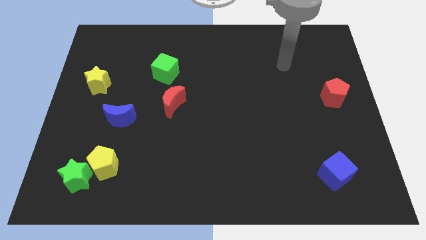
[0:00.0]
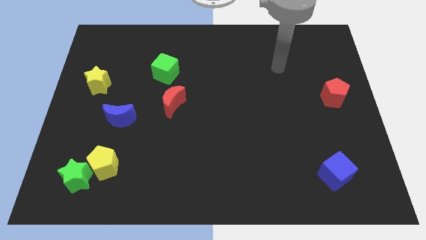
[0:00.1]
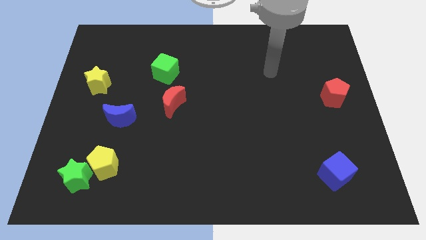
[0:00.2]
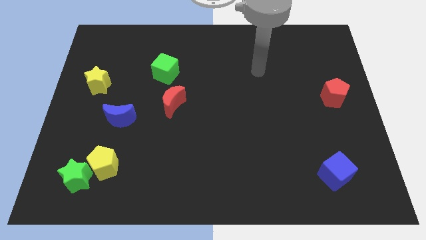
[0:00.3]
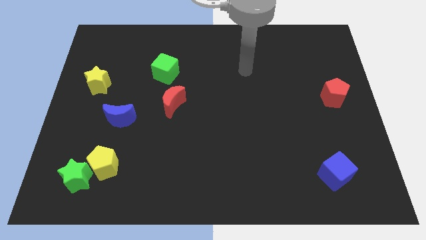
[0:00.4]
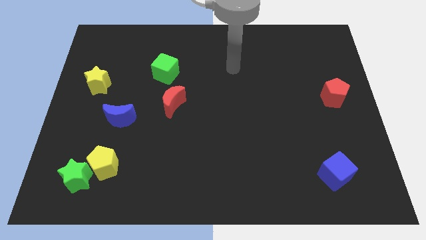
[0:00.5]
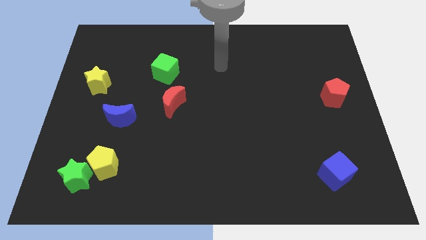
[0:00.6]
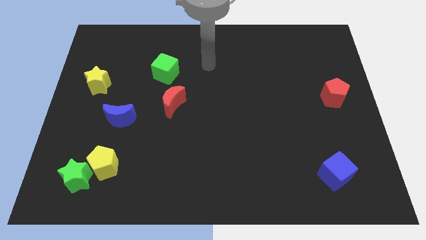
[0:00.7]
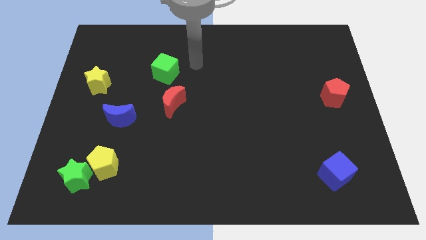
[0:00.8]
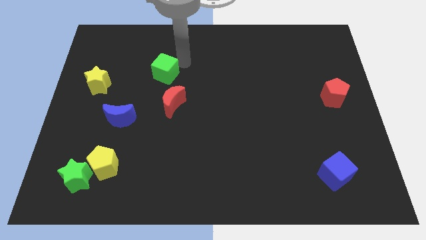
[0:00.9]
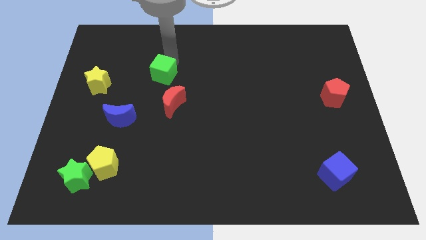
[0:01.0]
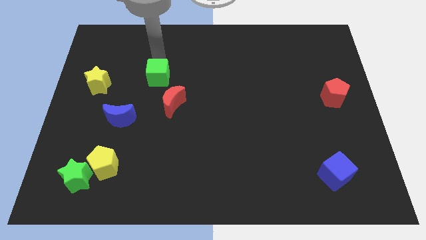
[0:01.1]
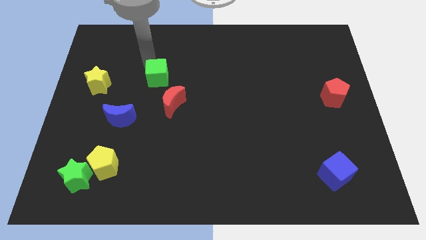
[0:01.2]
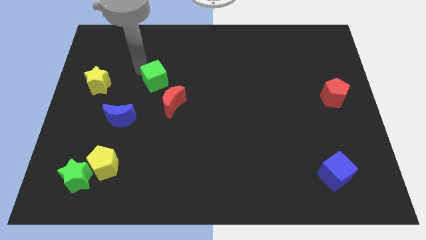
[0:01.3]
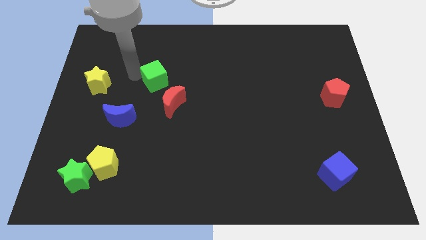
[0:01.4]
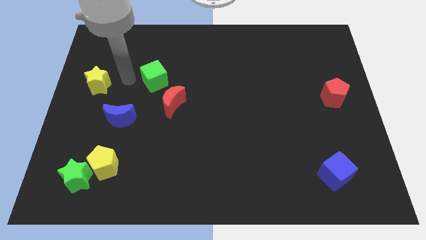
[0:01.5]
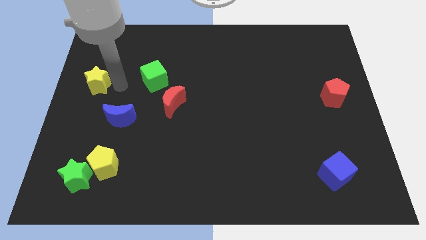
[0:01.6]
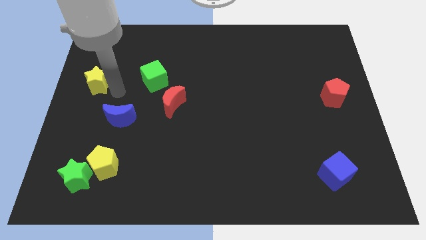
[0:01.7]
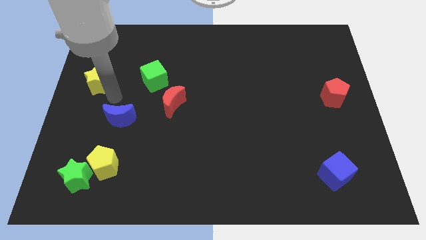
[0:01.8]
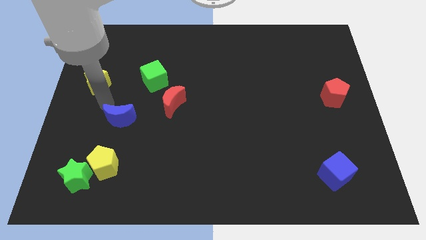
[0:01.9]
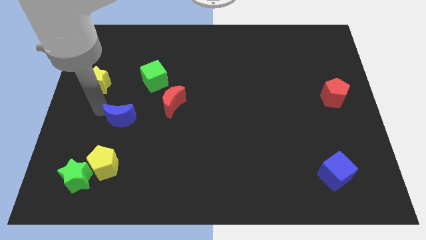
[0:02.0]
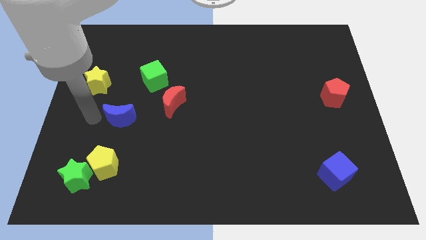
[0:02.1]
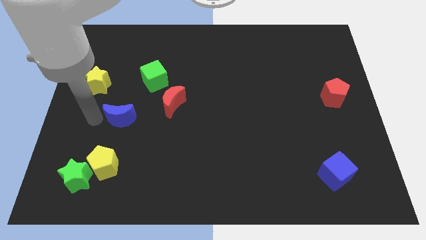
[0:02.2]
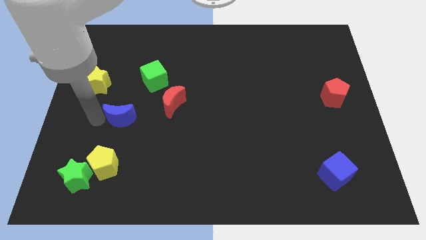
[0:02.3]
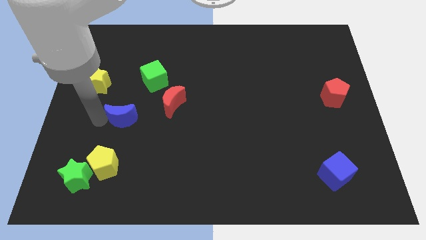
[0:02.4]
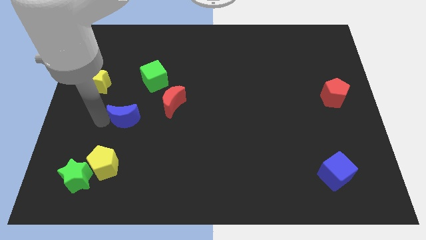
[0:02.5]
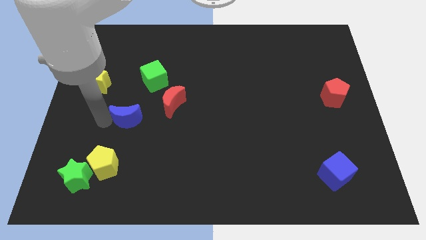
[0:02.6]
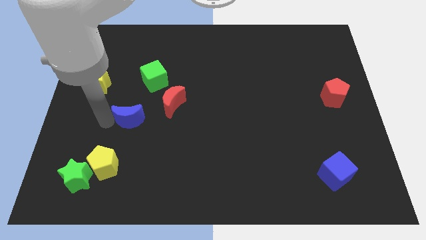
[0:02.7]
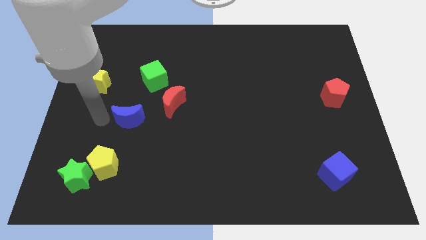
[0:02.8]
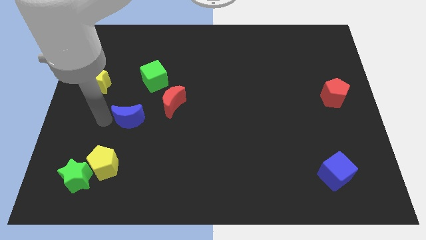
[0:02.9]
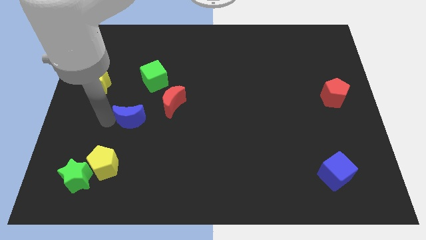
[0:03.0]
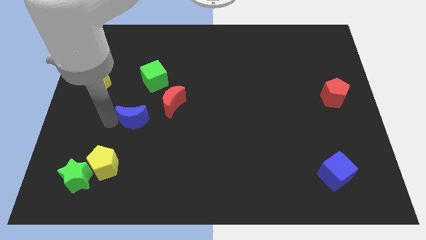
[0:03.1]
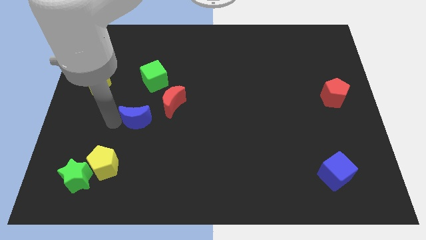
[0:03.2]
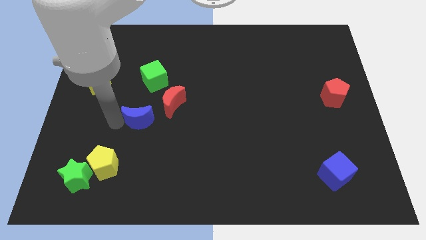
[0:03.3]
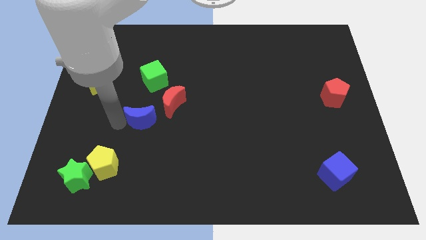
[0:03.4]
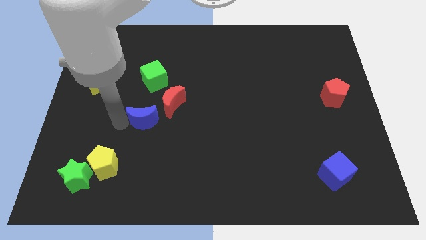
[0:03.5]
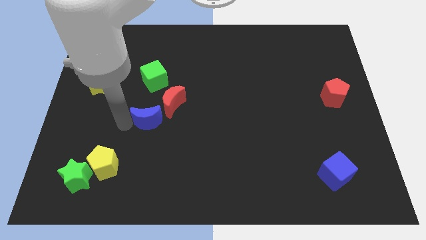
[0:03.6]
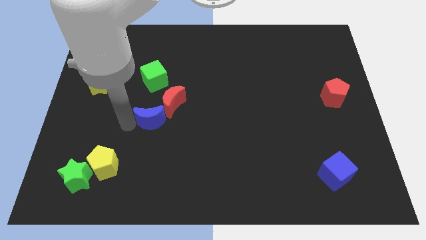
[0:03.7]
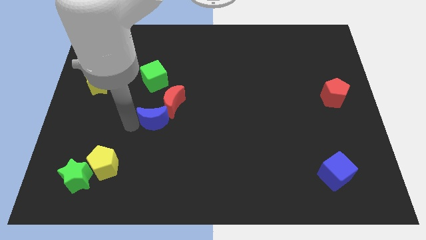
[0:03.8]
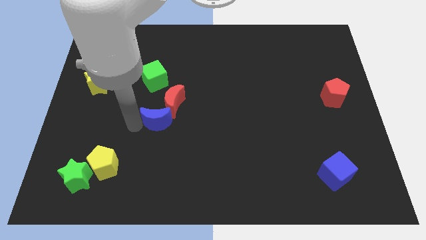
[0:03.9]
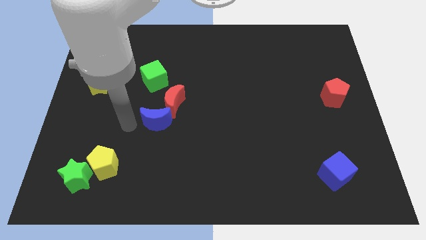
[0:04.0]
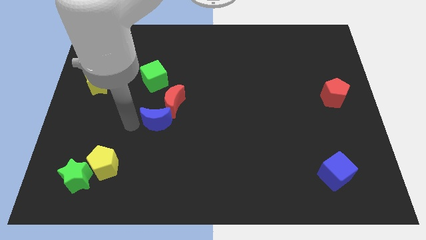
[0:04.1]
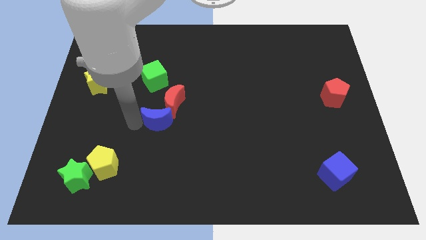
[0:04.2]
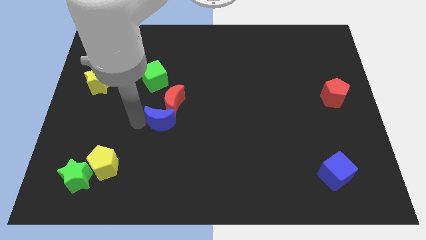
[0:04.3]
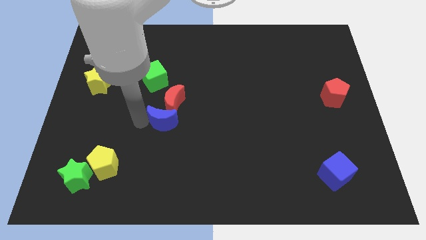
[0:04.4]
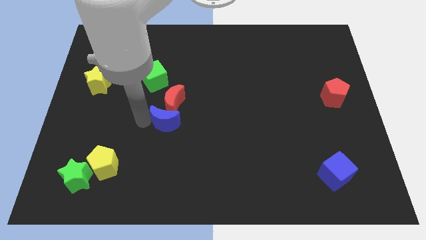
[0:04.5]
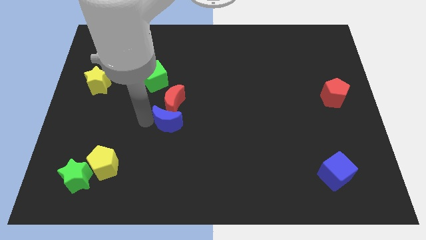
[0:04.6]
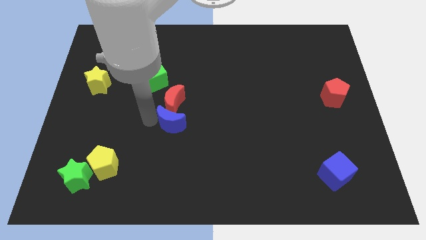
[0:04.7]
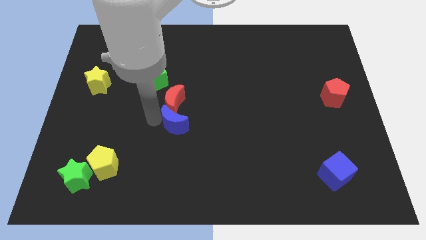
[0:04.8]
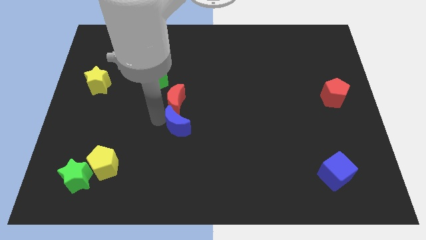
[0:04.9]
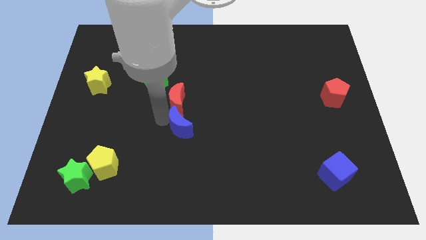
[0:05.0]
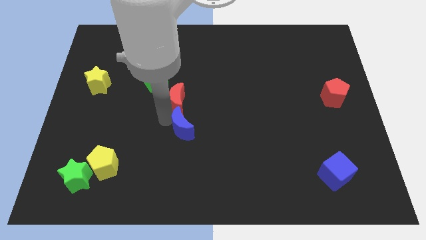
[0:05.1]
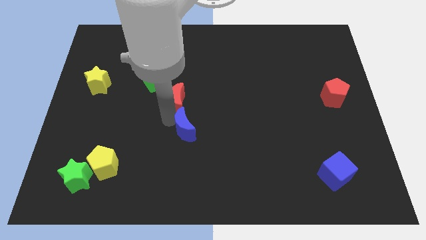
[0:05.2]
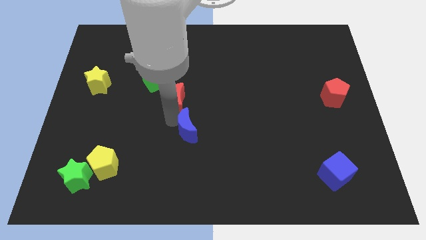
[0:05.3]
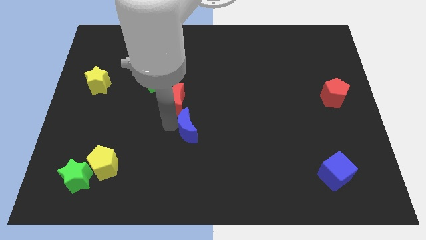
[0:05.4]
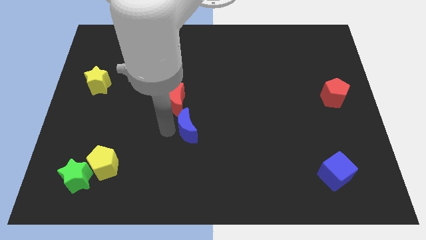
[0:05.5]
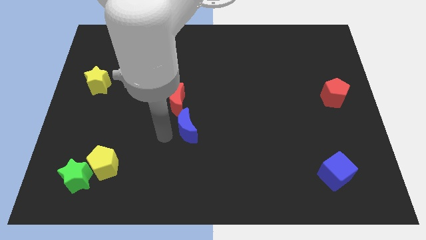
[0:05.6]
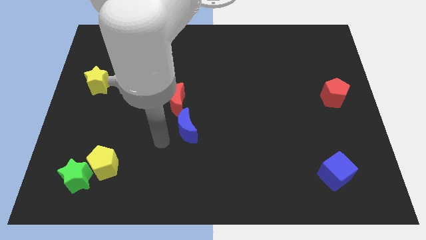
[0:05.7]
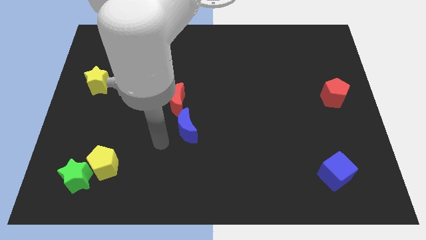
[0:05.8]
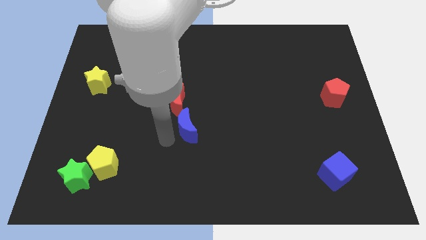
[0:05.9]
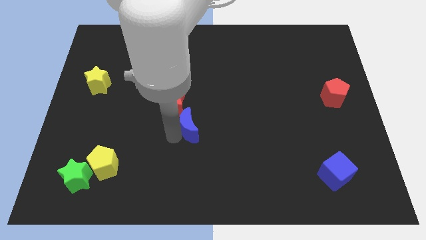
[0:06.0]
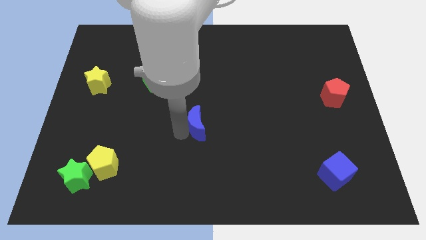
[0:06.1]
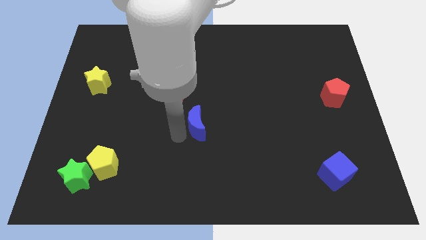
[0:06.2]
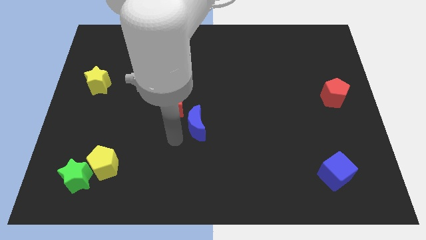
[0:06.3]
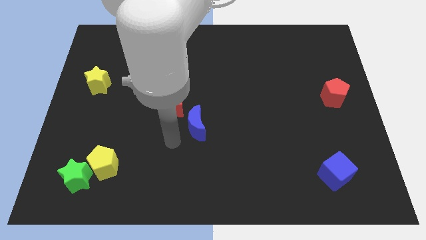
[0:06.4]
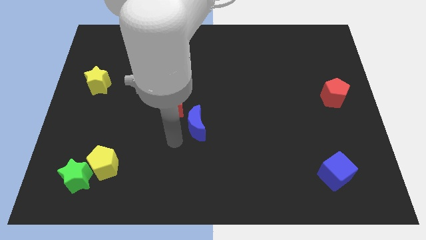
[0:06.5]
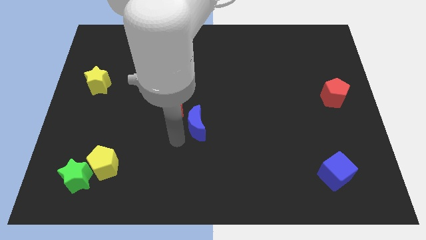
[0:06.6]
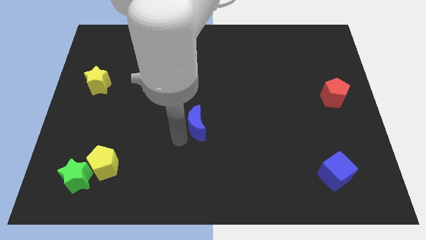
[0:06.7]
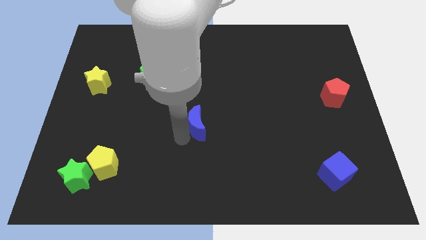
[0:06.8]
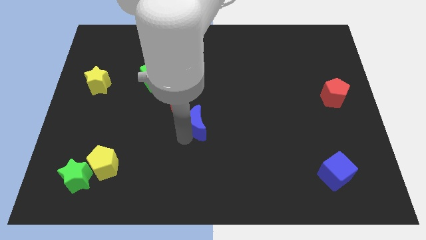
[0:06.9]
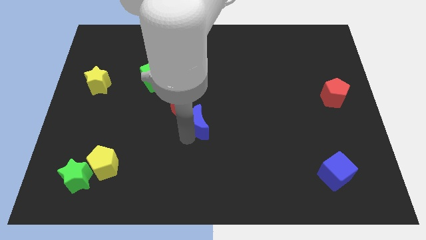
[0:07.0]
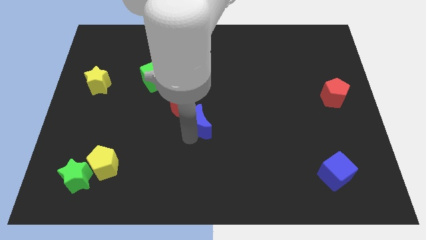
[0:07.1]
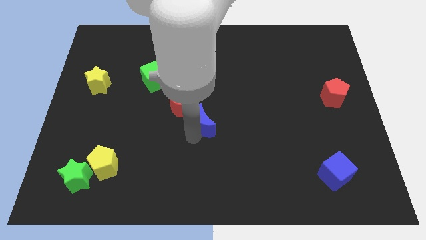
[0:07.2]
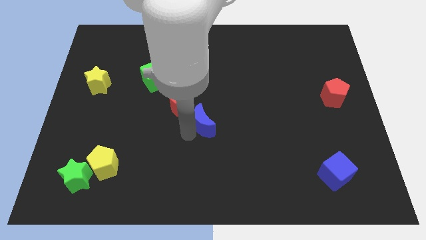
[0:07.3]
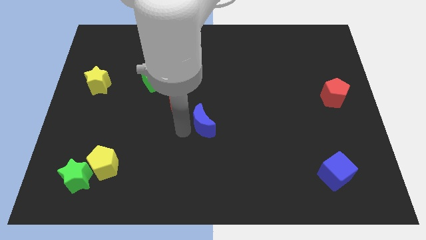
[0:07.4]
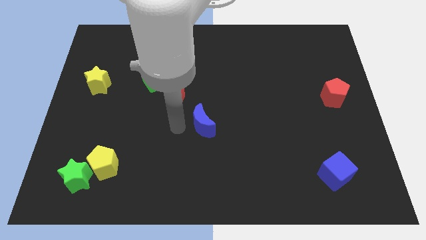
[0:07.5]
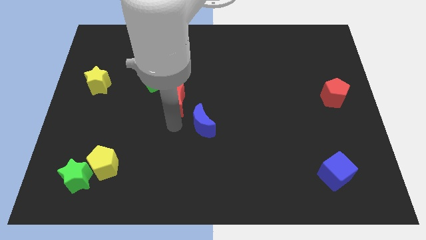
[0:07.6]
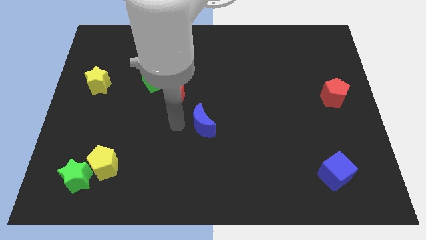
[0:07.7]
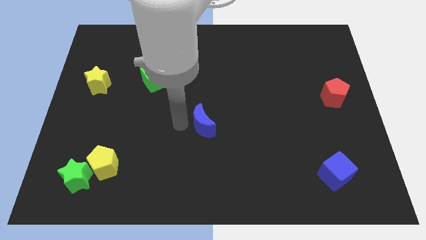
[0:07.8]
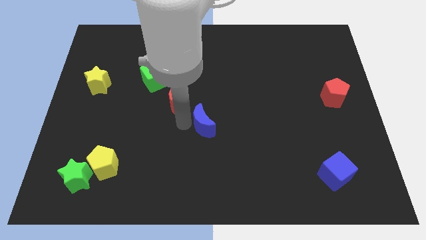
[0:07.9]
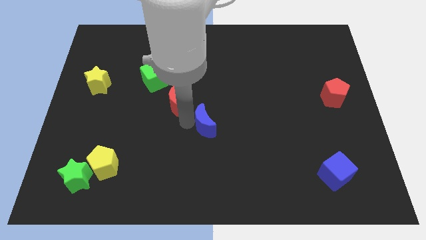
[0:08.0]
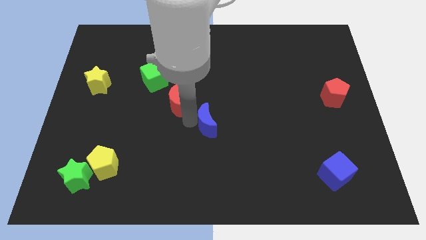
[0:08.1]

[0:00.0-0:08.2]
push the blue moon right
